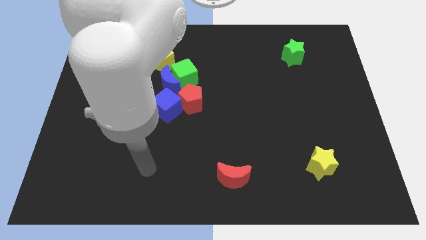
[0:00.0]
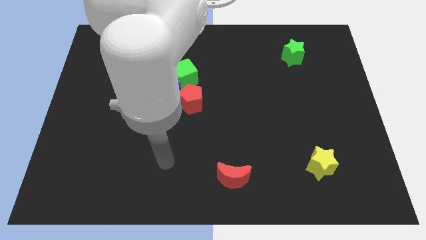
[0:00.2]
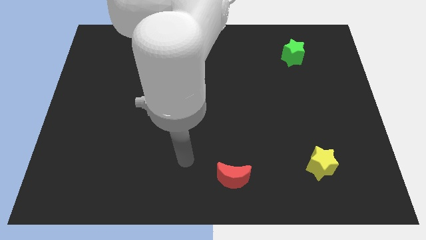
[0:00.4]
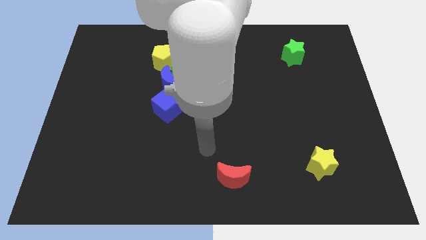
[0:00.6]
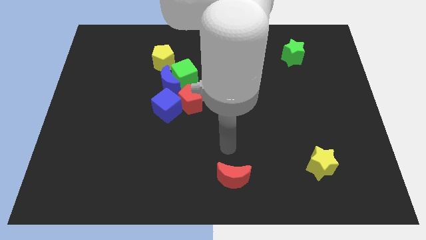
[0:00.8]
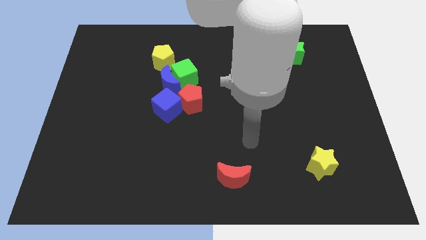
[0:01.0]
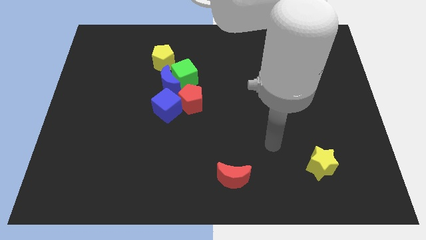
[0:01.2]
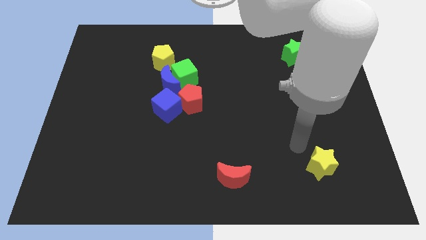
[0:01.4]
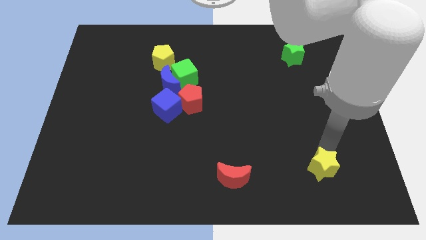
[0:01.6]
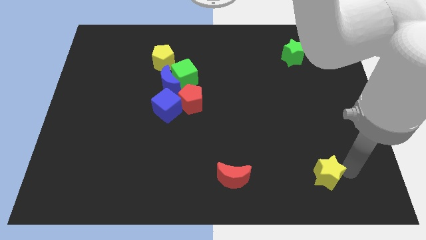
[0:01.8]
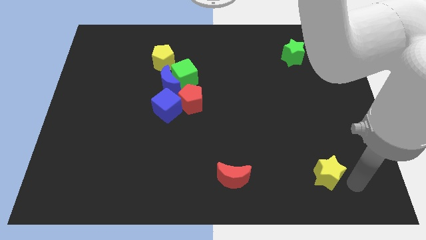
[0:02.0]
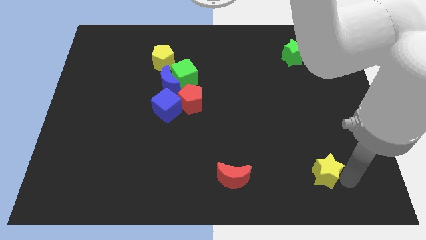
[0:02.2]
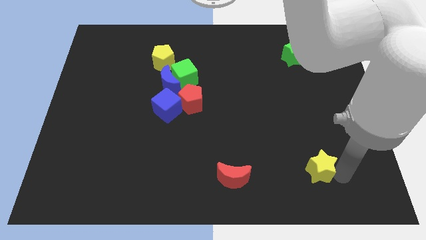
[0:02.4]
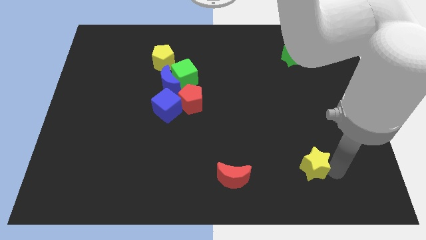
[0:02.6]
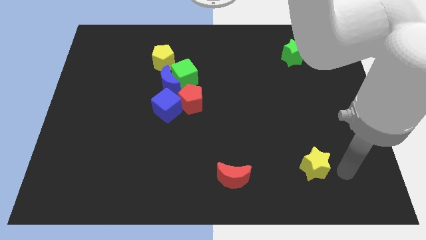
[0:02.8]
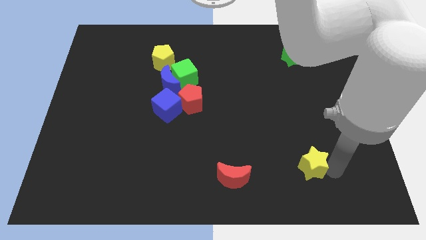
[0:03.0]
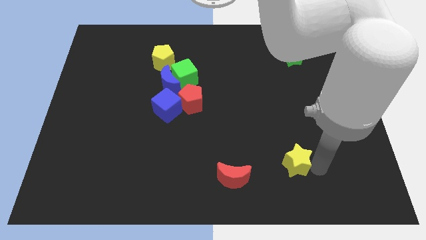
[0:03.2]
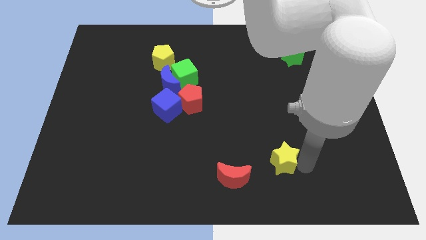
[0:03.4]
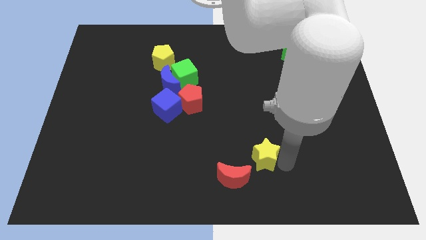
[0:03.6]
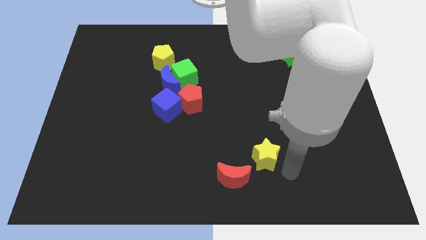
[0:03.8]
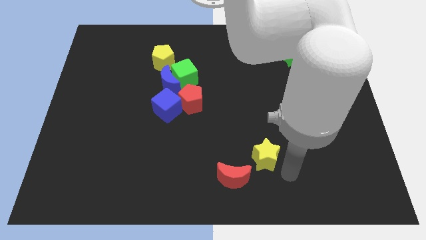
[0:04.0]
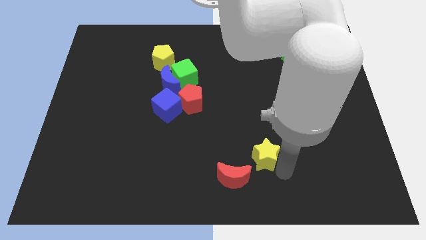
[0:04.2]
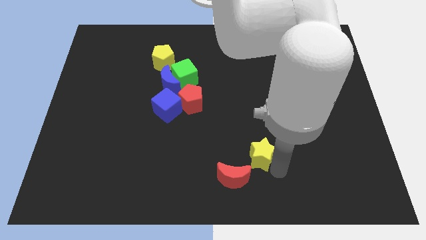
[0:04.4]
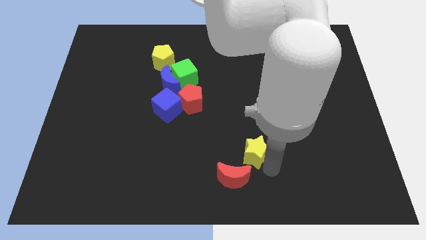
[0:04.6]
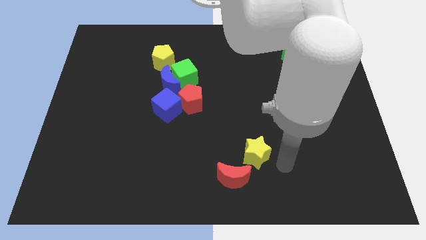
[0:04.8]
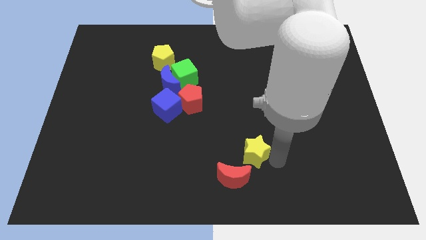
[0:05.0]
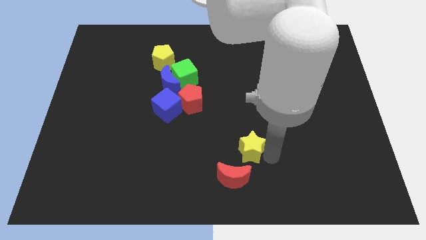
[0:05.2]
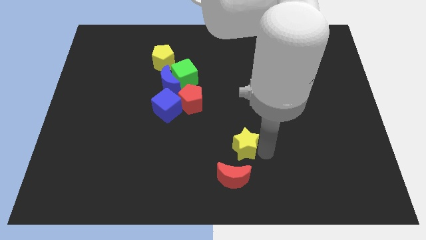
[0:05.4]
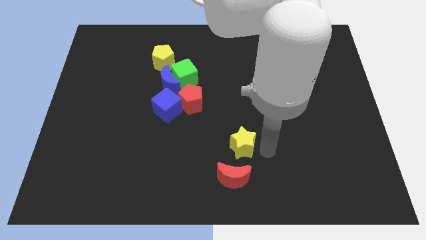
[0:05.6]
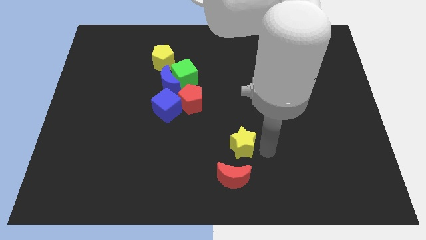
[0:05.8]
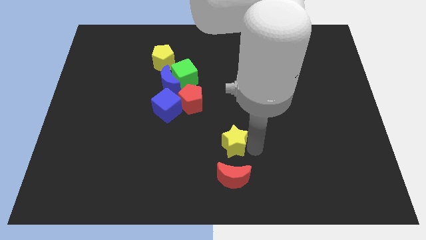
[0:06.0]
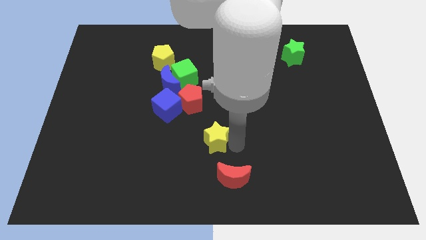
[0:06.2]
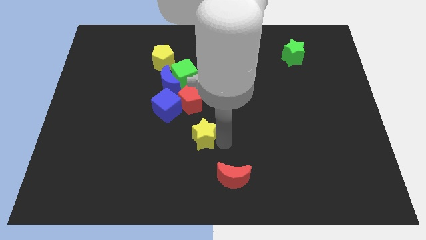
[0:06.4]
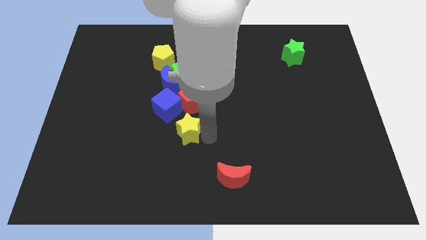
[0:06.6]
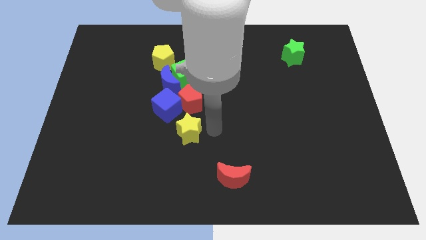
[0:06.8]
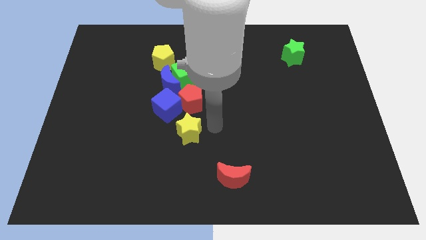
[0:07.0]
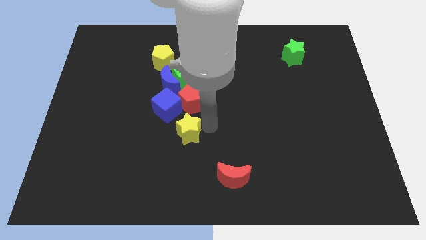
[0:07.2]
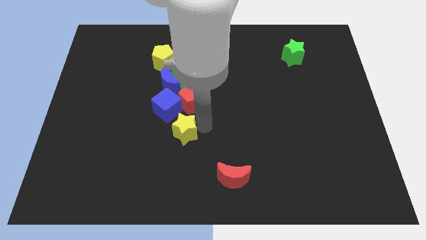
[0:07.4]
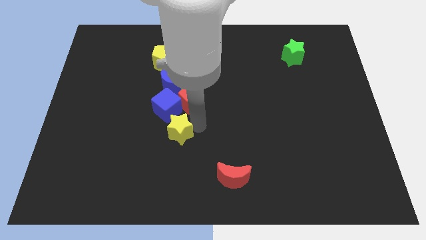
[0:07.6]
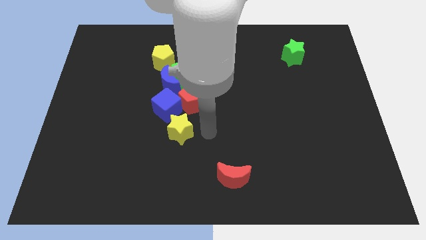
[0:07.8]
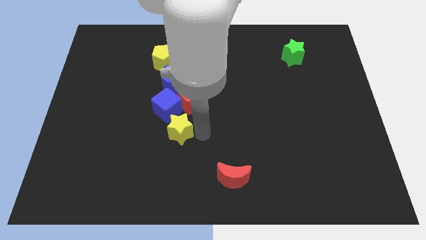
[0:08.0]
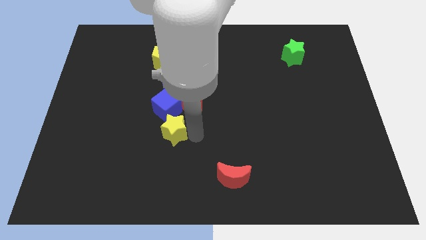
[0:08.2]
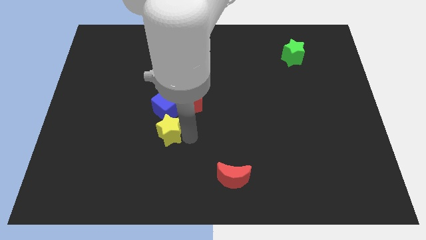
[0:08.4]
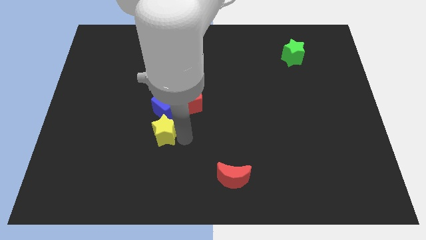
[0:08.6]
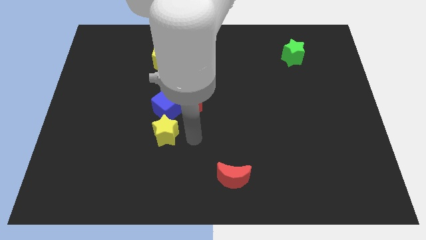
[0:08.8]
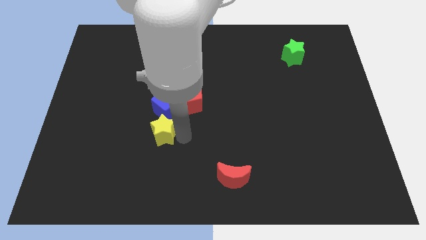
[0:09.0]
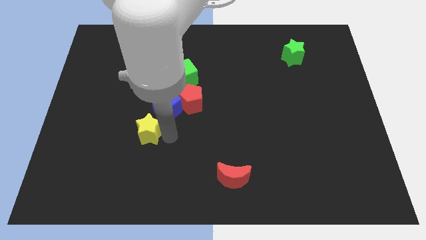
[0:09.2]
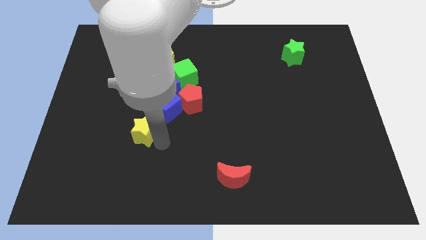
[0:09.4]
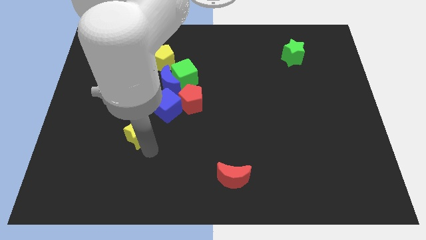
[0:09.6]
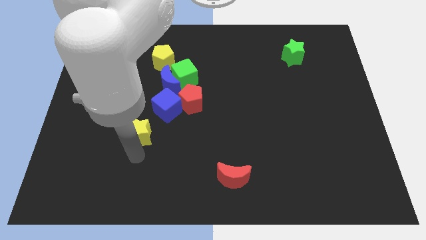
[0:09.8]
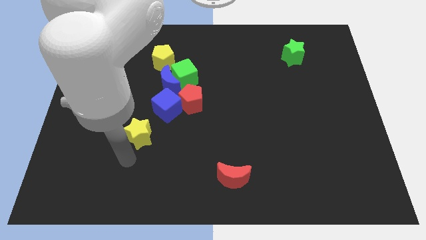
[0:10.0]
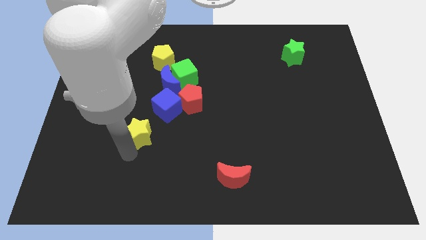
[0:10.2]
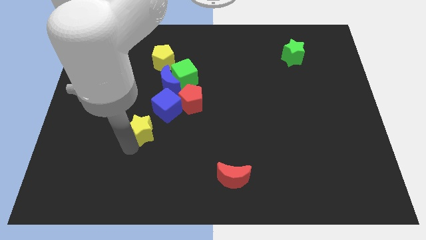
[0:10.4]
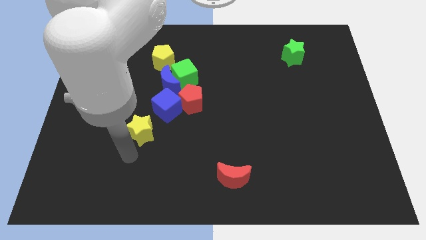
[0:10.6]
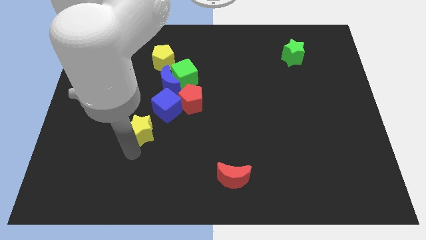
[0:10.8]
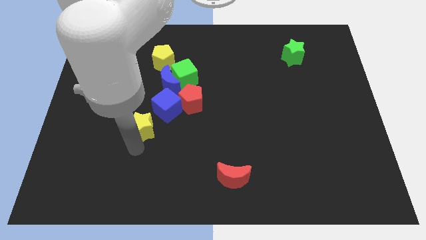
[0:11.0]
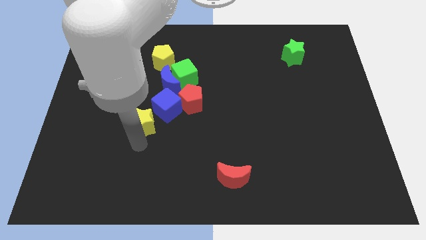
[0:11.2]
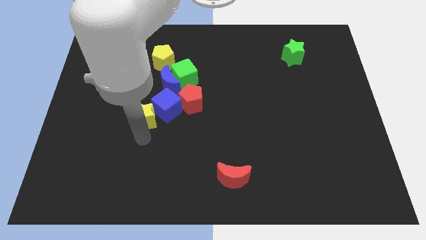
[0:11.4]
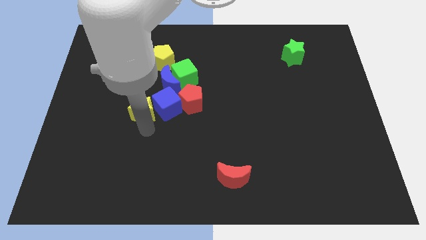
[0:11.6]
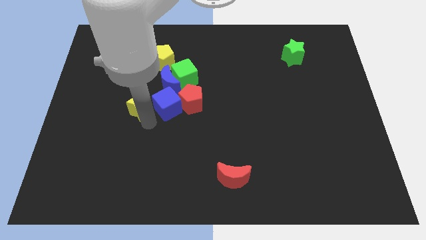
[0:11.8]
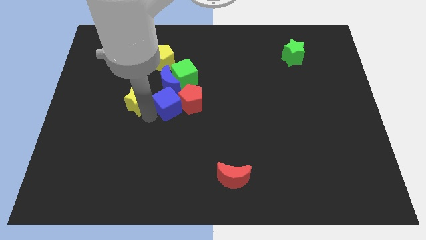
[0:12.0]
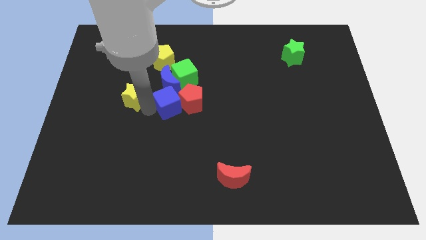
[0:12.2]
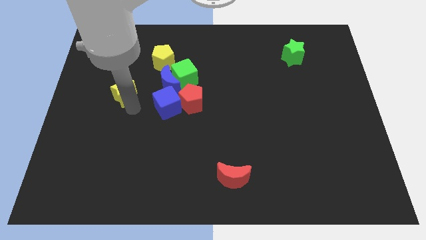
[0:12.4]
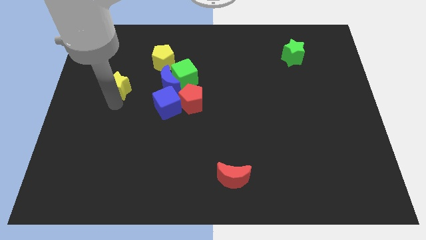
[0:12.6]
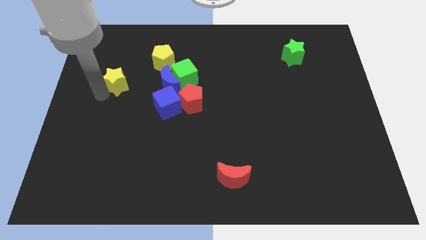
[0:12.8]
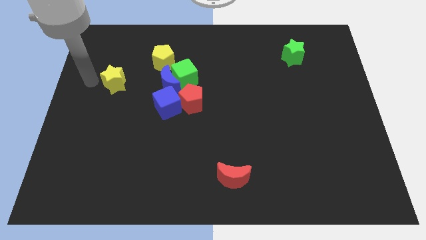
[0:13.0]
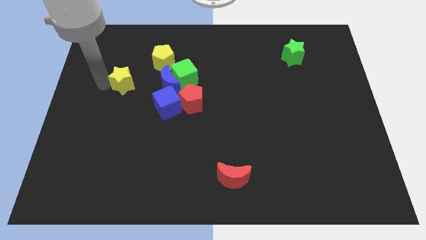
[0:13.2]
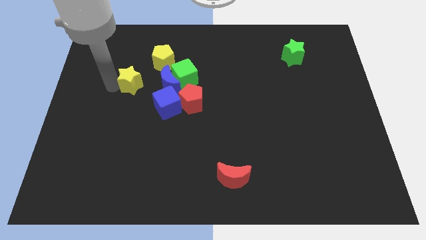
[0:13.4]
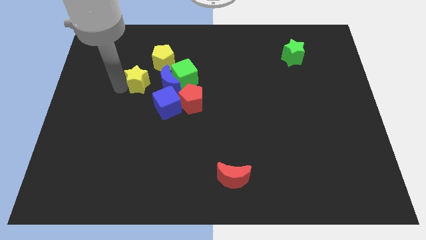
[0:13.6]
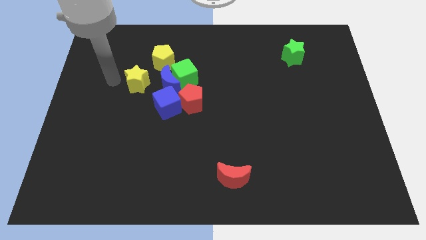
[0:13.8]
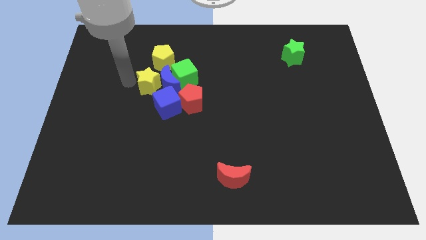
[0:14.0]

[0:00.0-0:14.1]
slide the yellow star close to the blue moon
